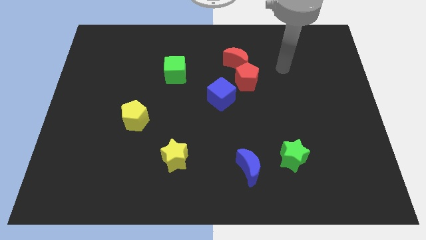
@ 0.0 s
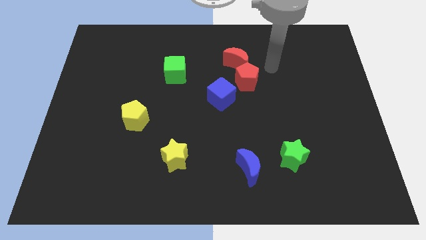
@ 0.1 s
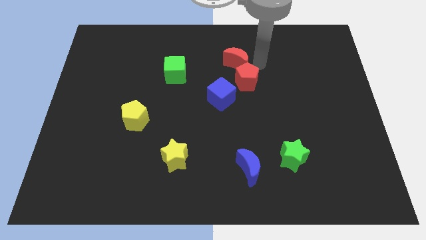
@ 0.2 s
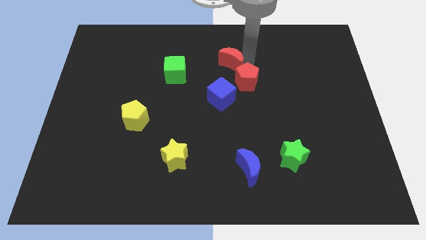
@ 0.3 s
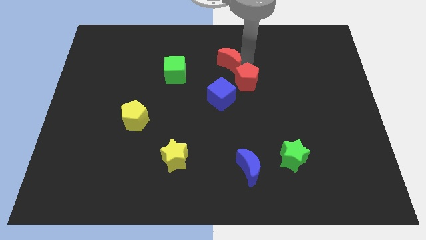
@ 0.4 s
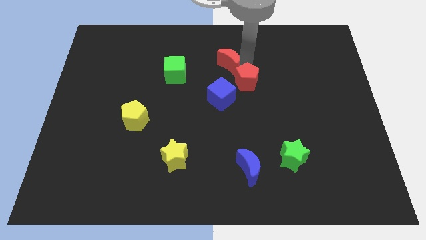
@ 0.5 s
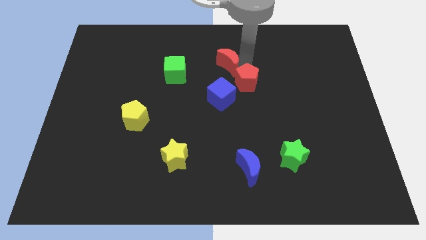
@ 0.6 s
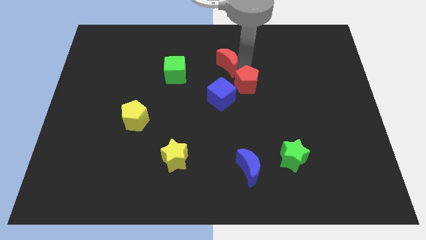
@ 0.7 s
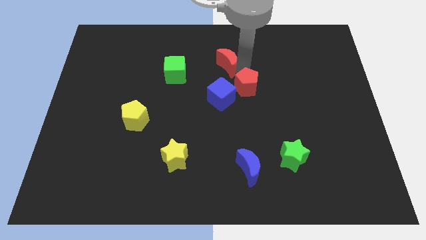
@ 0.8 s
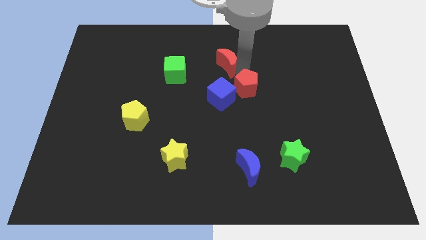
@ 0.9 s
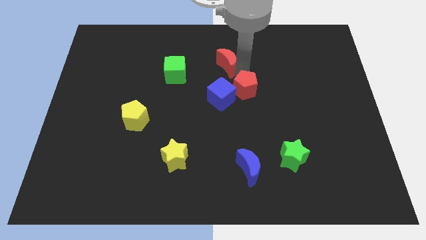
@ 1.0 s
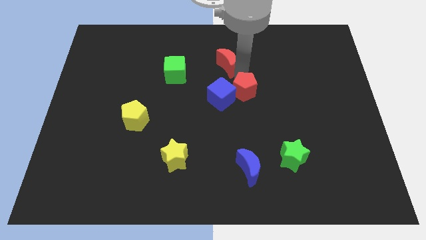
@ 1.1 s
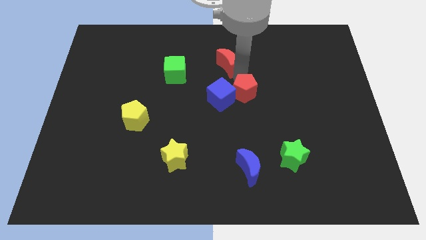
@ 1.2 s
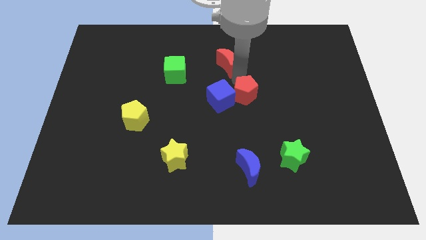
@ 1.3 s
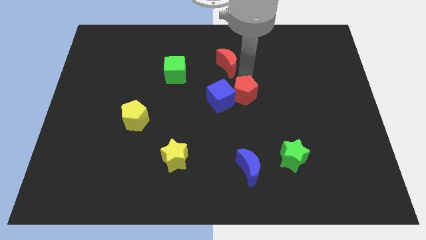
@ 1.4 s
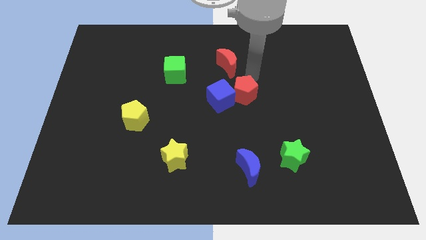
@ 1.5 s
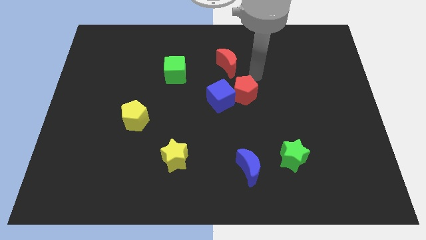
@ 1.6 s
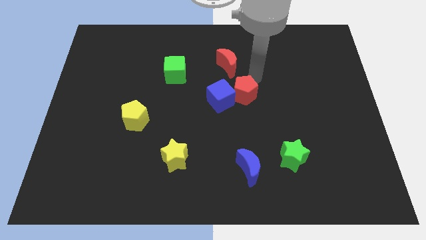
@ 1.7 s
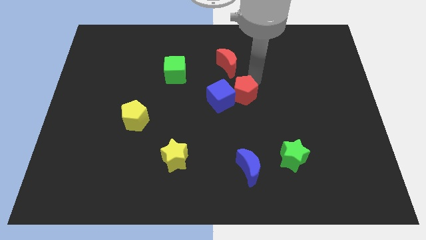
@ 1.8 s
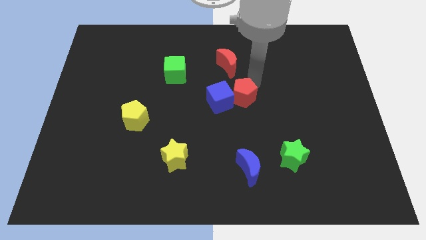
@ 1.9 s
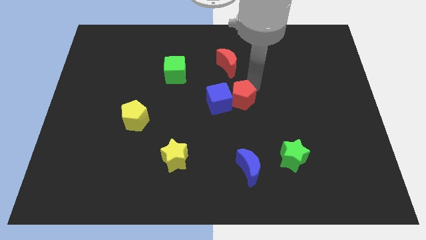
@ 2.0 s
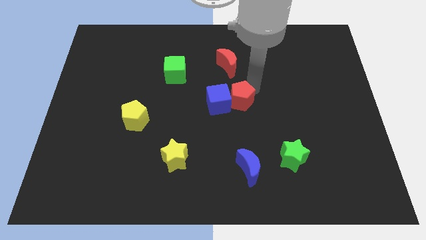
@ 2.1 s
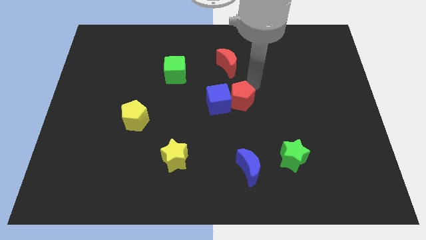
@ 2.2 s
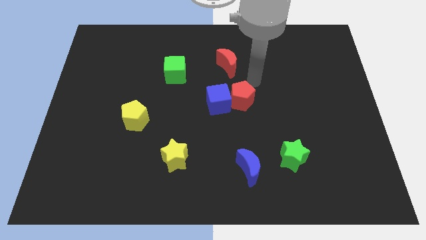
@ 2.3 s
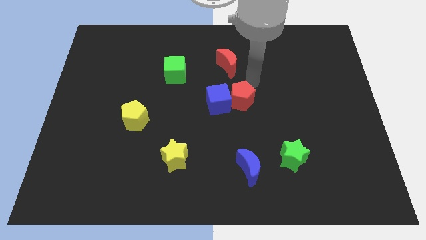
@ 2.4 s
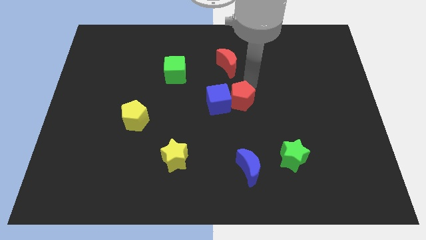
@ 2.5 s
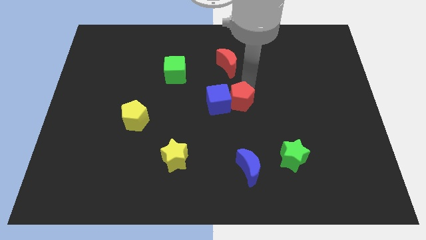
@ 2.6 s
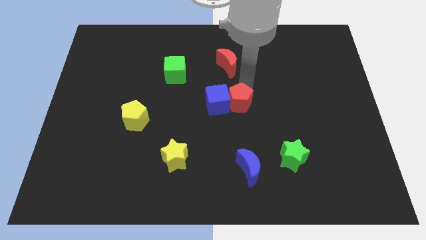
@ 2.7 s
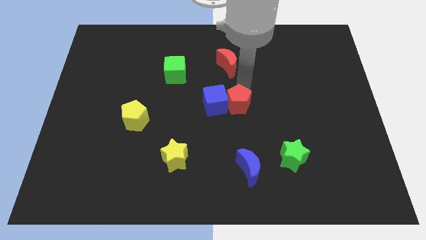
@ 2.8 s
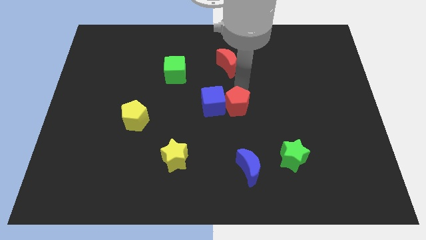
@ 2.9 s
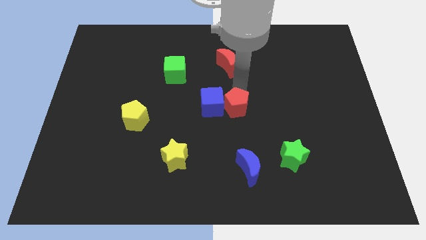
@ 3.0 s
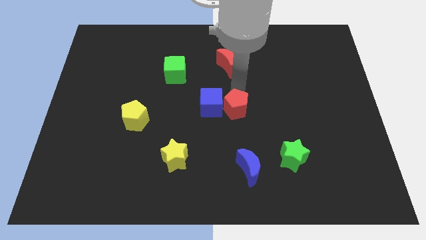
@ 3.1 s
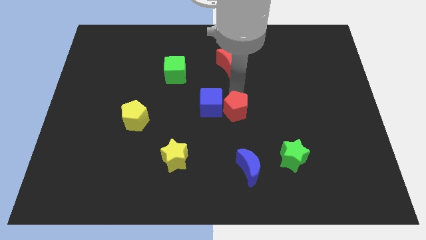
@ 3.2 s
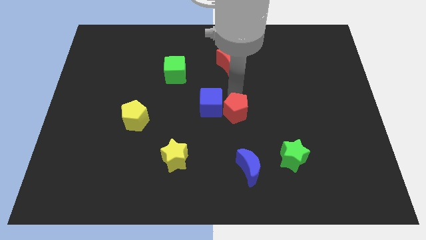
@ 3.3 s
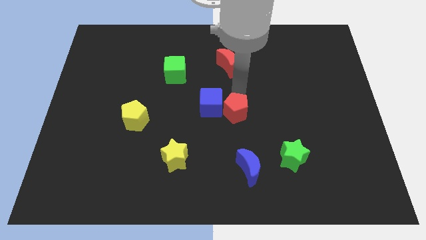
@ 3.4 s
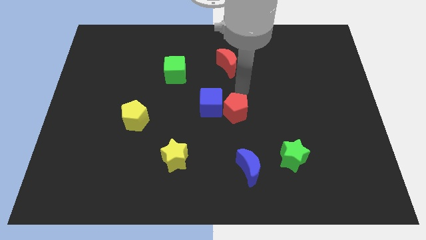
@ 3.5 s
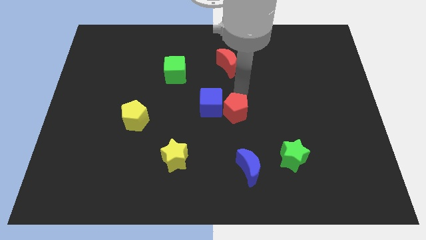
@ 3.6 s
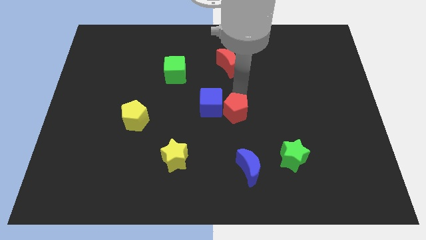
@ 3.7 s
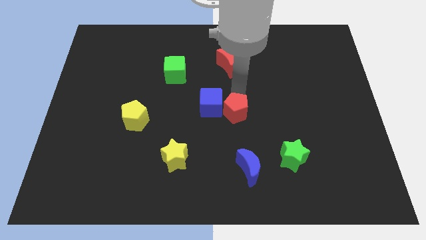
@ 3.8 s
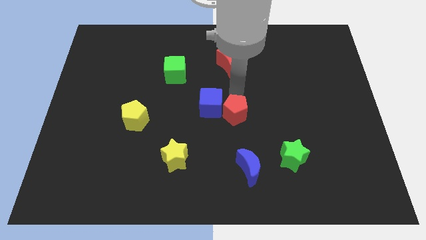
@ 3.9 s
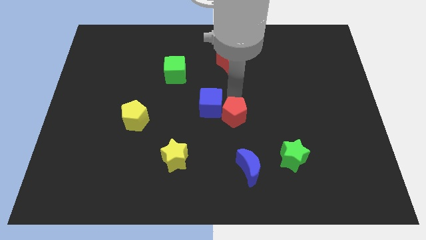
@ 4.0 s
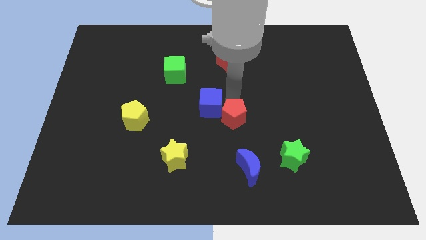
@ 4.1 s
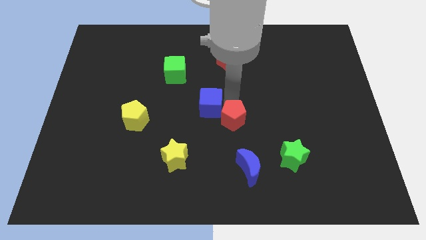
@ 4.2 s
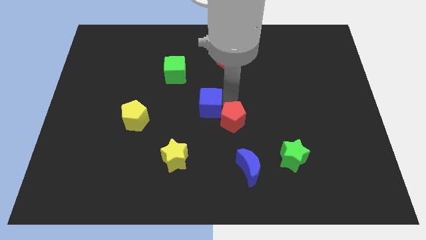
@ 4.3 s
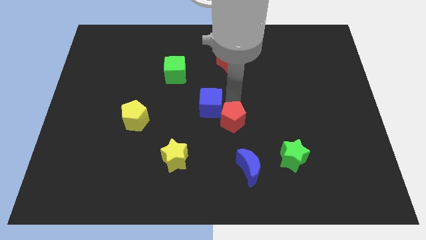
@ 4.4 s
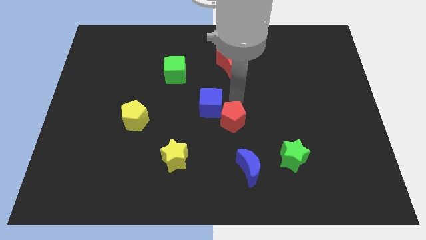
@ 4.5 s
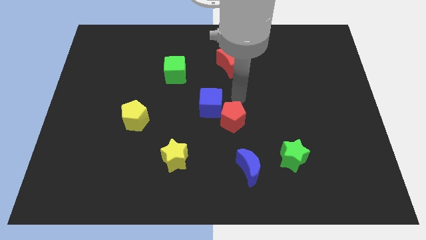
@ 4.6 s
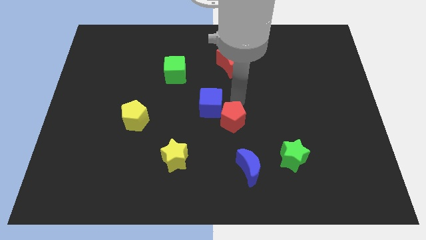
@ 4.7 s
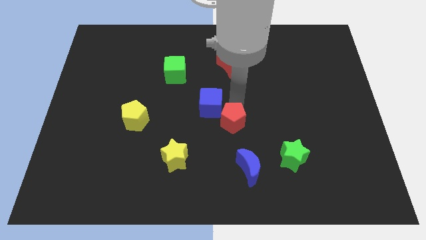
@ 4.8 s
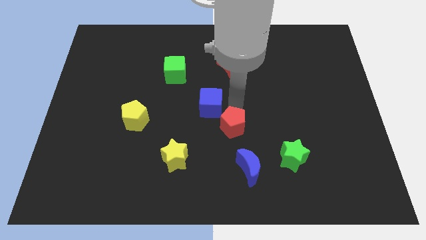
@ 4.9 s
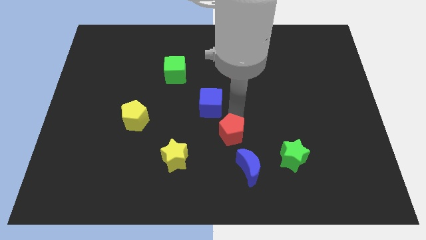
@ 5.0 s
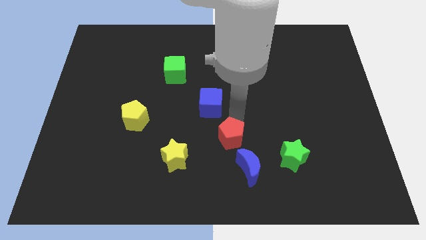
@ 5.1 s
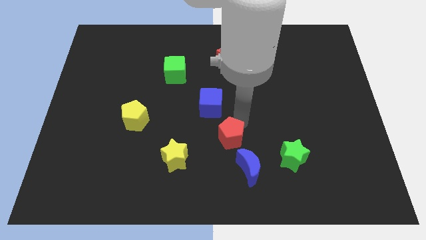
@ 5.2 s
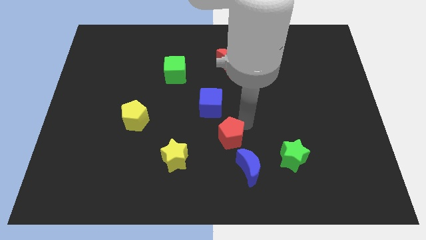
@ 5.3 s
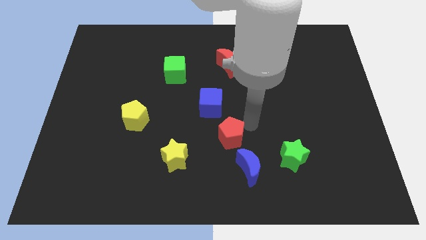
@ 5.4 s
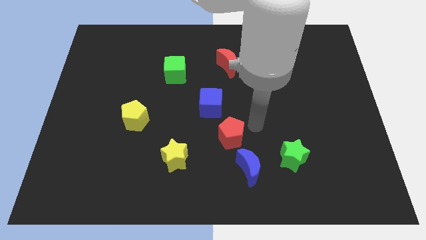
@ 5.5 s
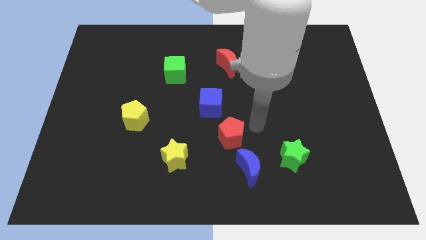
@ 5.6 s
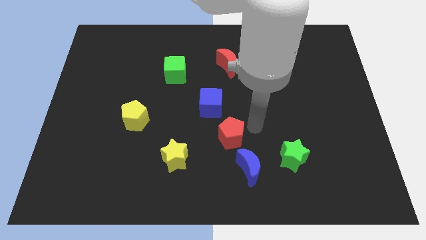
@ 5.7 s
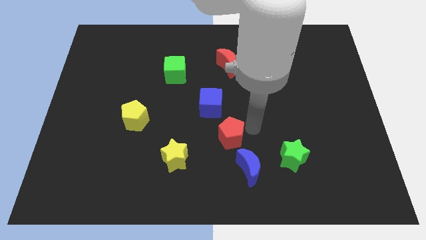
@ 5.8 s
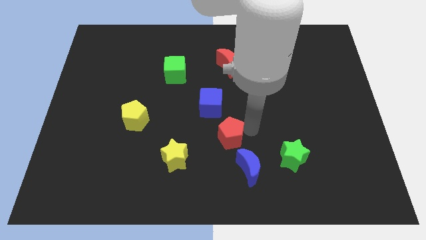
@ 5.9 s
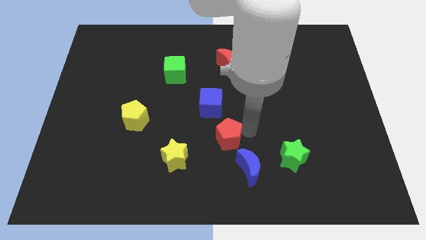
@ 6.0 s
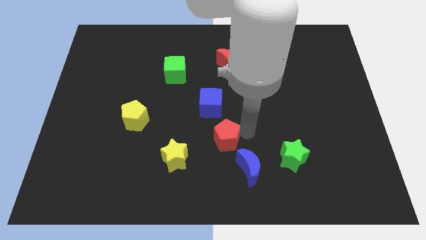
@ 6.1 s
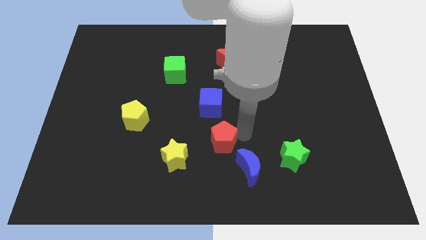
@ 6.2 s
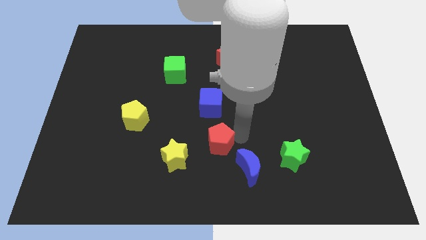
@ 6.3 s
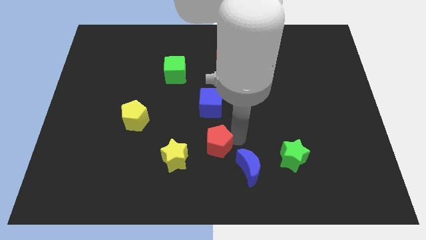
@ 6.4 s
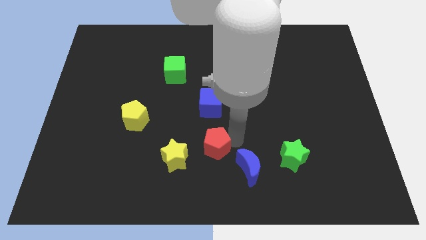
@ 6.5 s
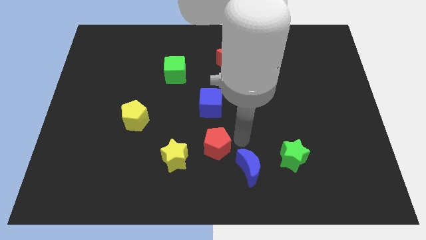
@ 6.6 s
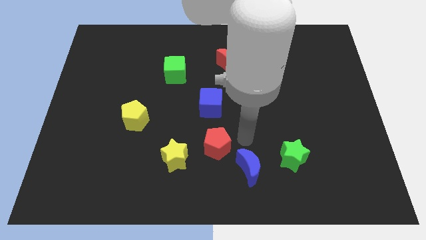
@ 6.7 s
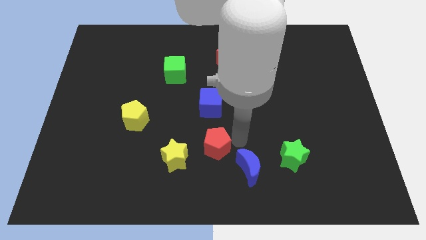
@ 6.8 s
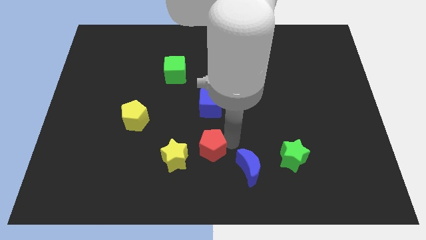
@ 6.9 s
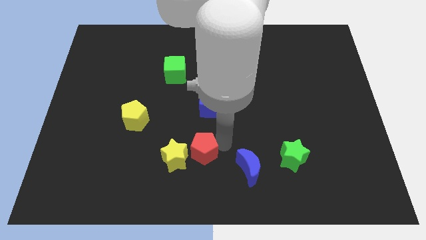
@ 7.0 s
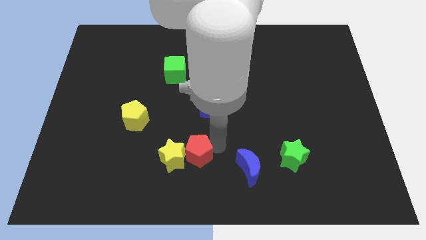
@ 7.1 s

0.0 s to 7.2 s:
put the red pentagon to the yellow star

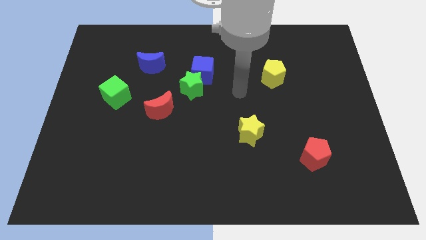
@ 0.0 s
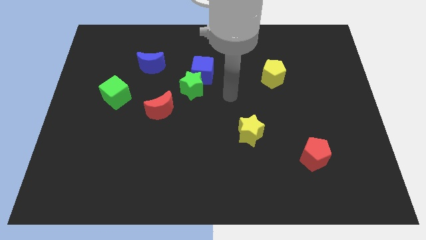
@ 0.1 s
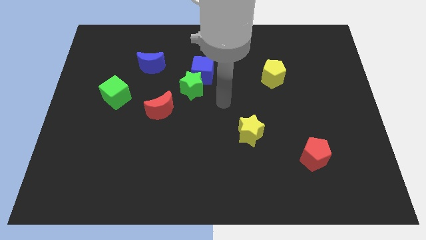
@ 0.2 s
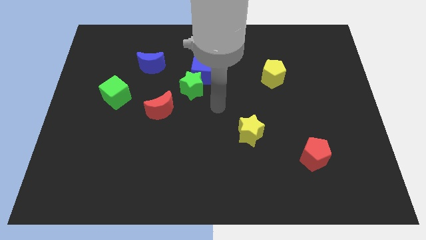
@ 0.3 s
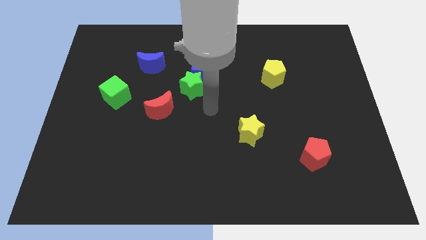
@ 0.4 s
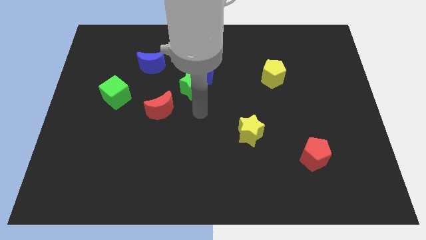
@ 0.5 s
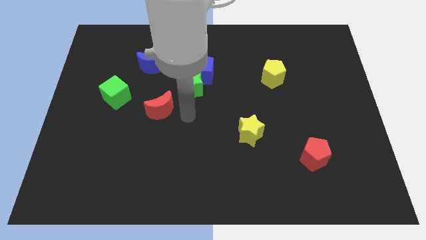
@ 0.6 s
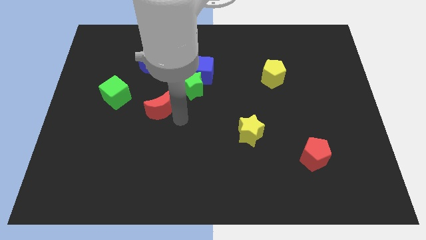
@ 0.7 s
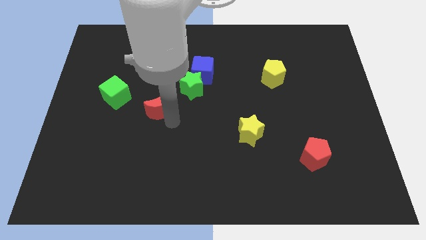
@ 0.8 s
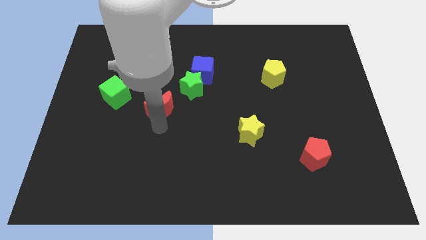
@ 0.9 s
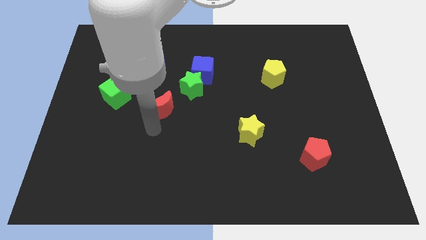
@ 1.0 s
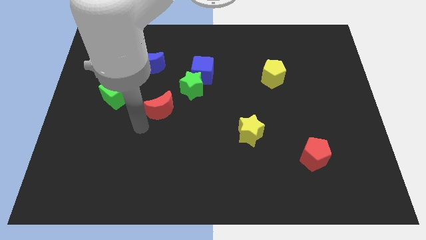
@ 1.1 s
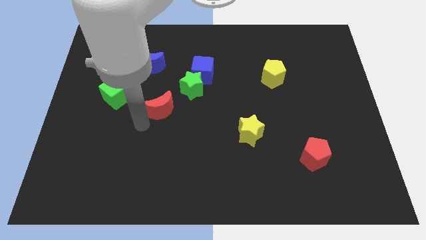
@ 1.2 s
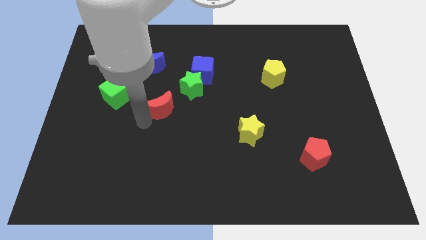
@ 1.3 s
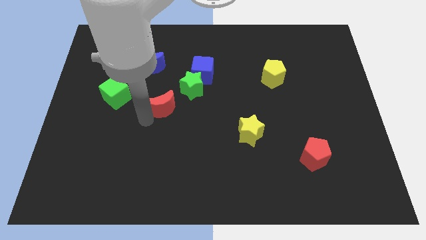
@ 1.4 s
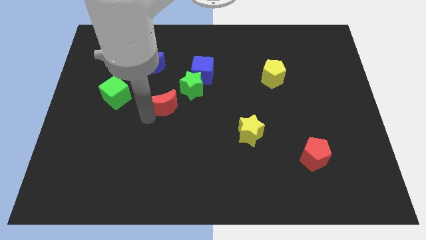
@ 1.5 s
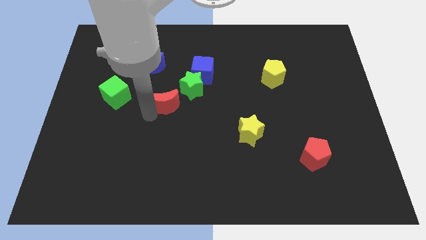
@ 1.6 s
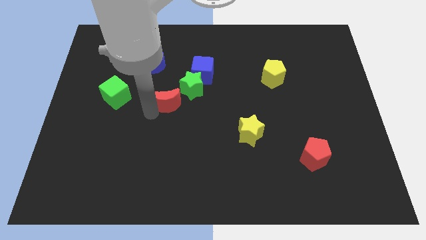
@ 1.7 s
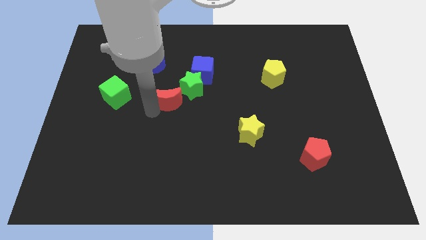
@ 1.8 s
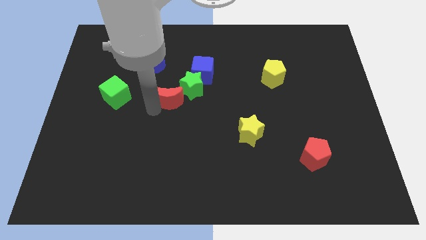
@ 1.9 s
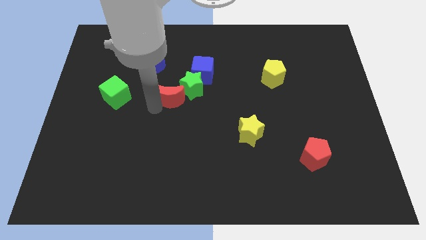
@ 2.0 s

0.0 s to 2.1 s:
put the red moon close to the green star
